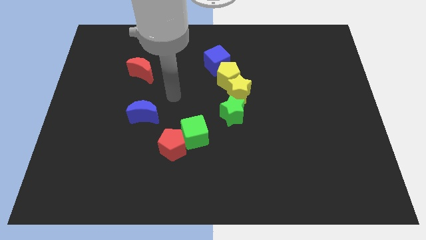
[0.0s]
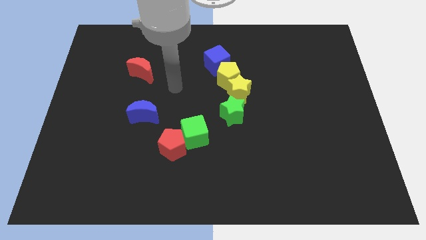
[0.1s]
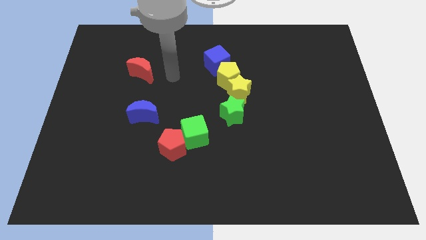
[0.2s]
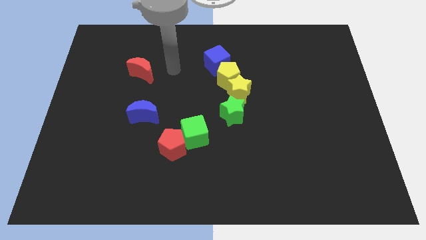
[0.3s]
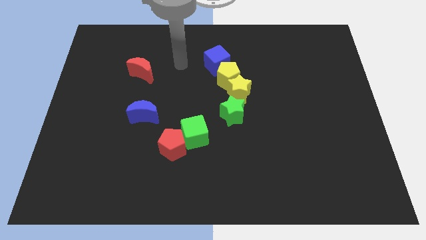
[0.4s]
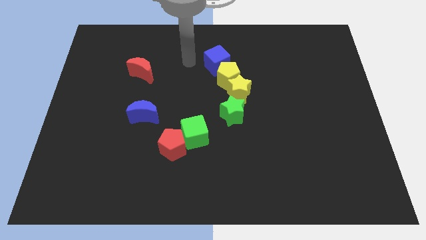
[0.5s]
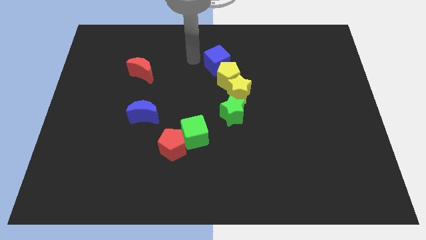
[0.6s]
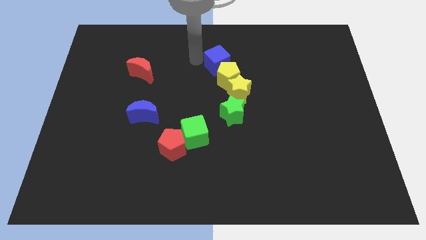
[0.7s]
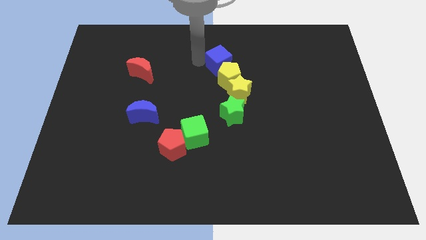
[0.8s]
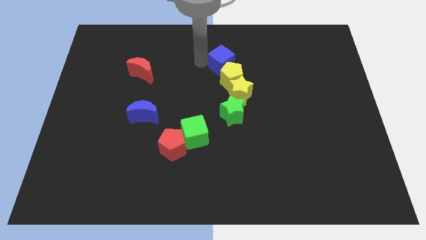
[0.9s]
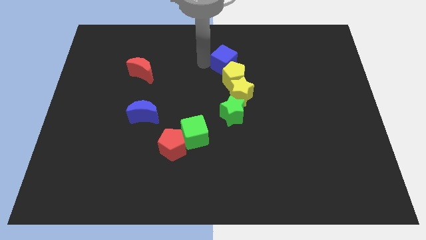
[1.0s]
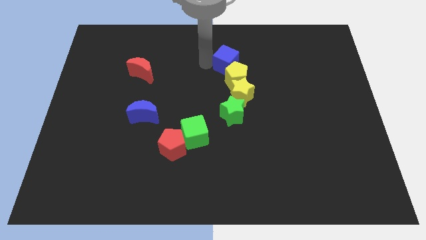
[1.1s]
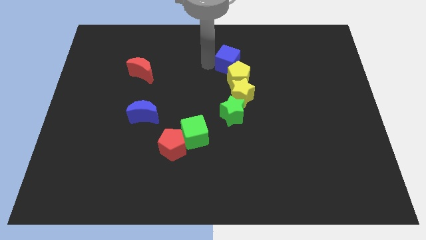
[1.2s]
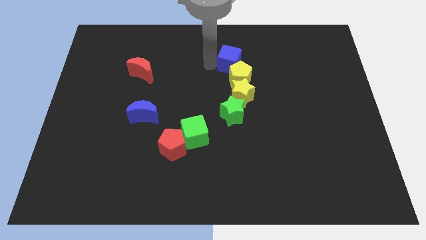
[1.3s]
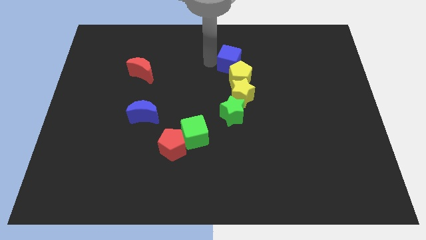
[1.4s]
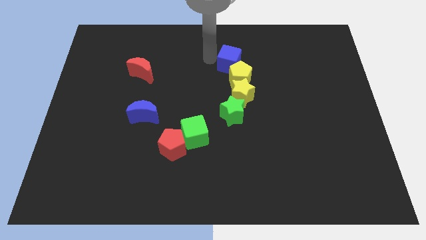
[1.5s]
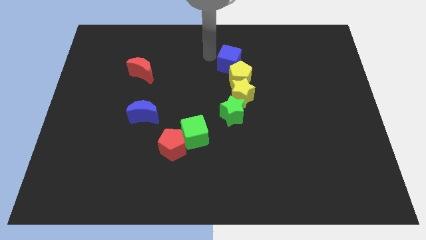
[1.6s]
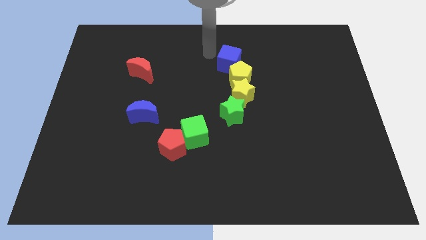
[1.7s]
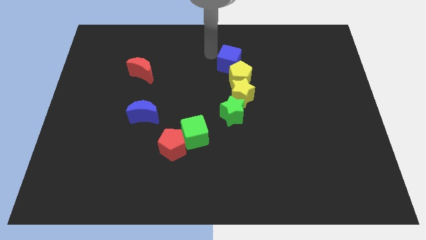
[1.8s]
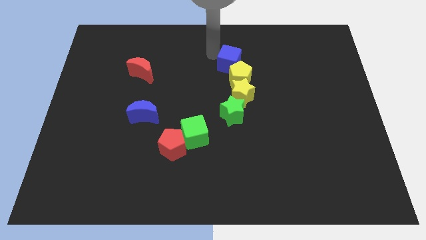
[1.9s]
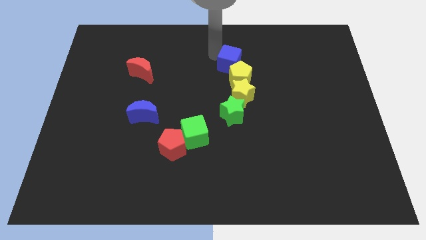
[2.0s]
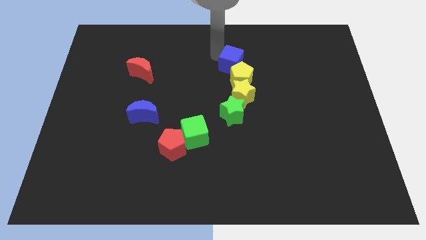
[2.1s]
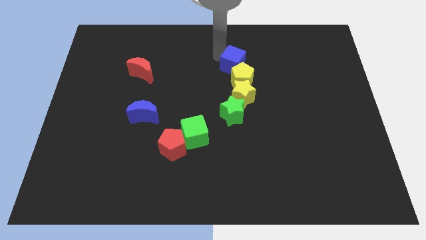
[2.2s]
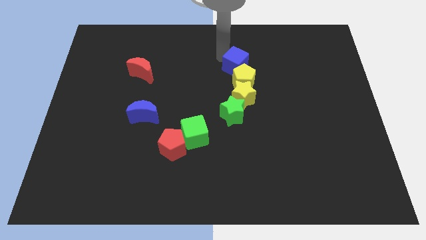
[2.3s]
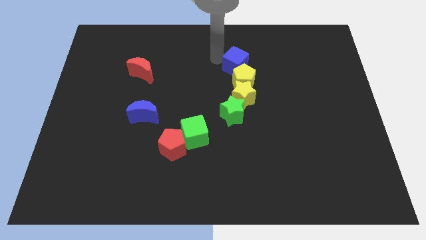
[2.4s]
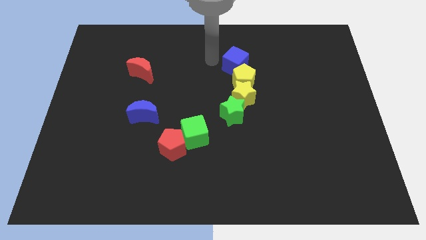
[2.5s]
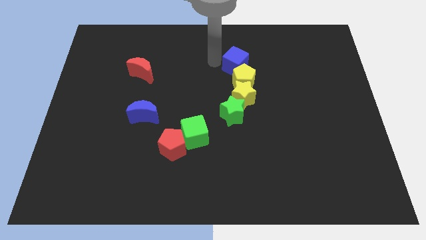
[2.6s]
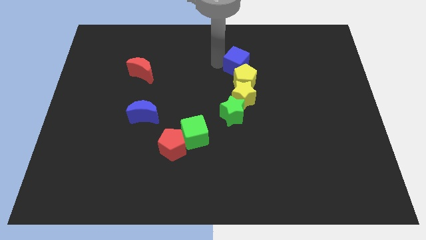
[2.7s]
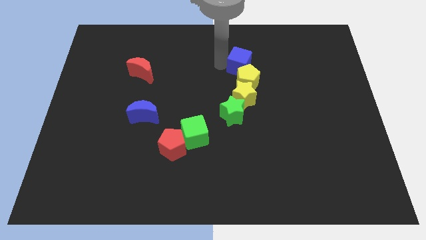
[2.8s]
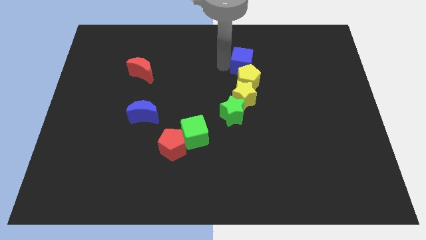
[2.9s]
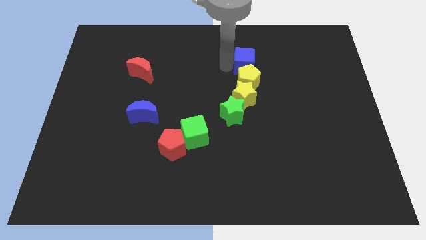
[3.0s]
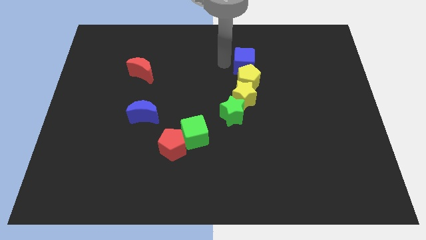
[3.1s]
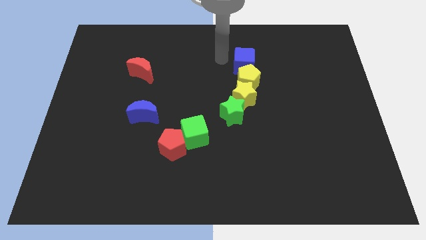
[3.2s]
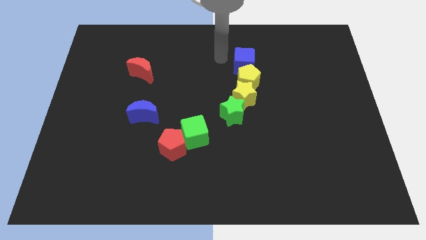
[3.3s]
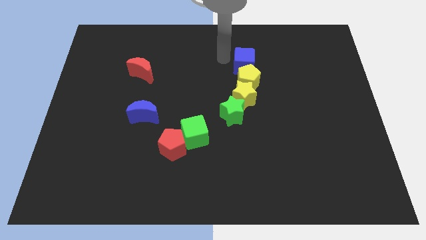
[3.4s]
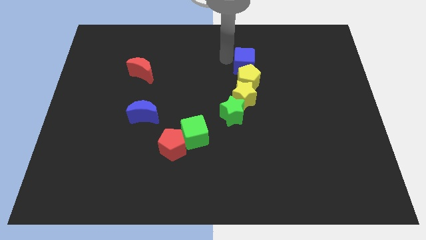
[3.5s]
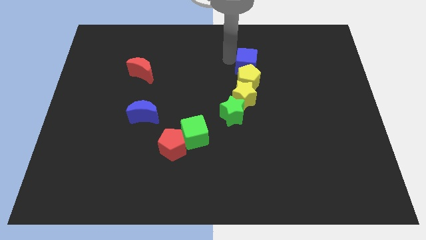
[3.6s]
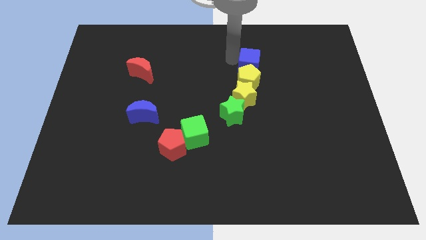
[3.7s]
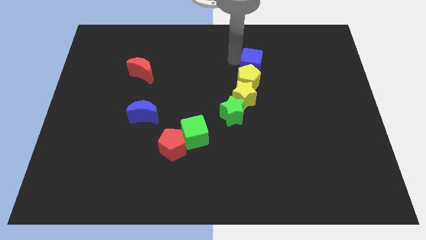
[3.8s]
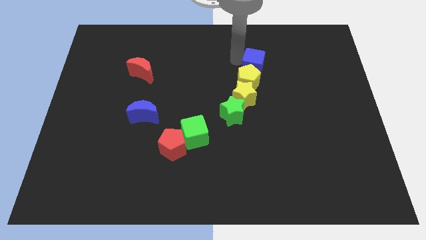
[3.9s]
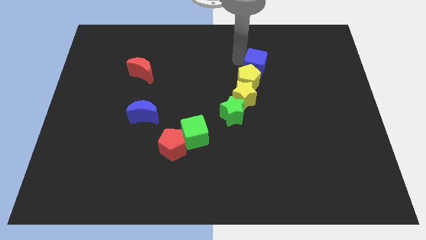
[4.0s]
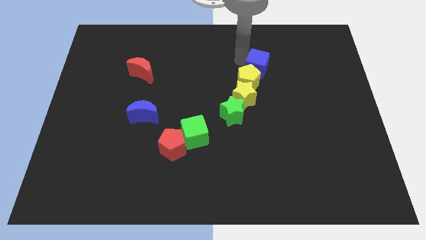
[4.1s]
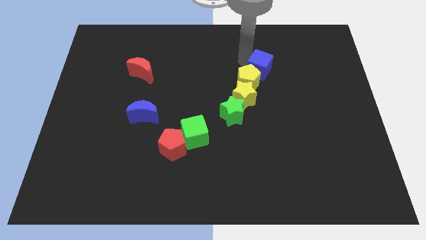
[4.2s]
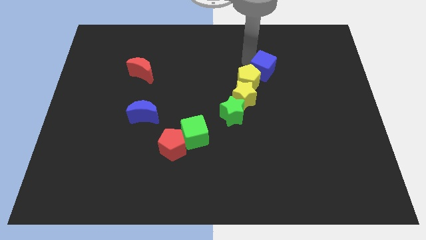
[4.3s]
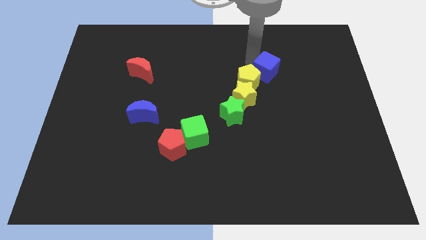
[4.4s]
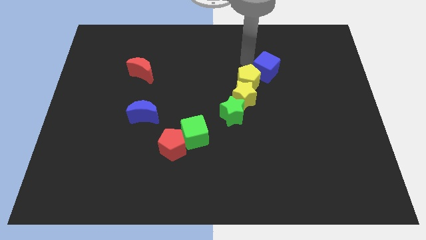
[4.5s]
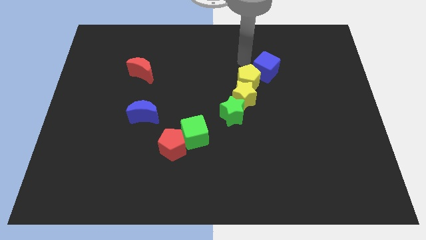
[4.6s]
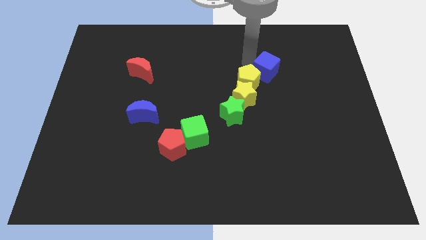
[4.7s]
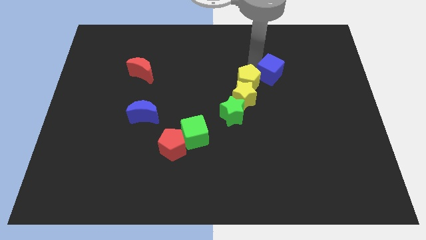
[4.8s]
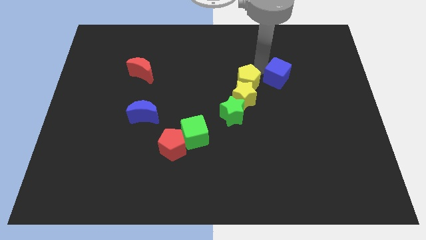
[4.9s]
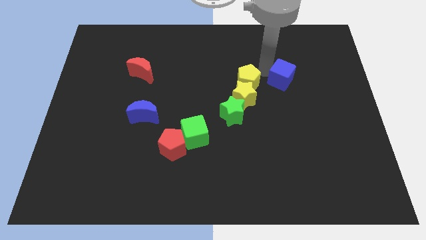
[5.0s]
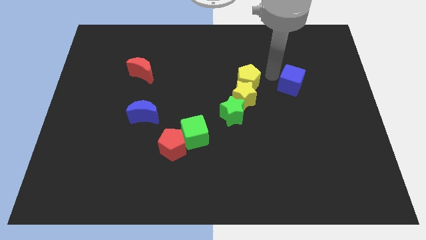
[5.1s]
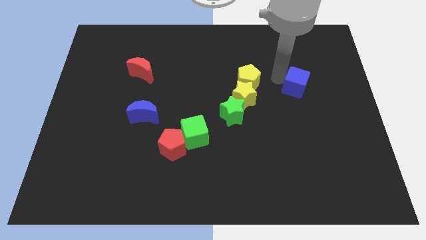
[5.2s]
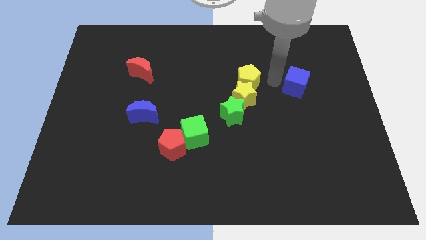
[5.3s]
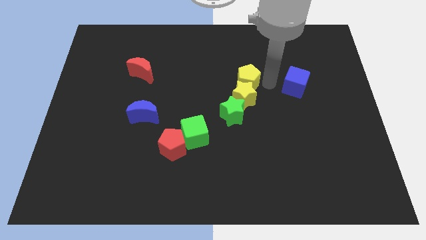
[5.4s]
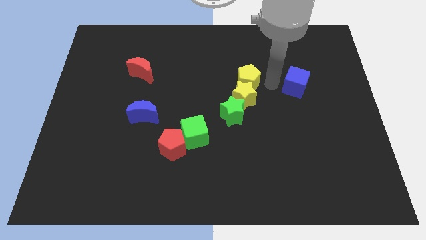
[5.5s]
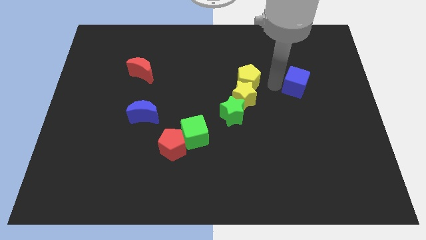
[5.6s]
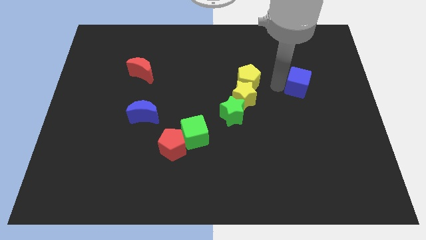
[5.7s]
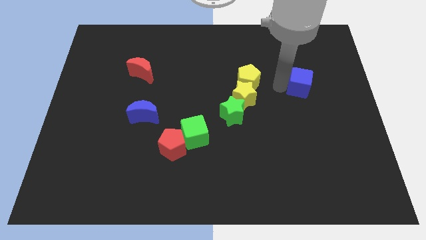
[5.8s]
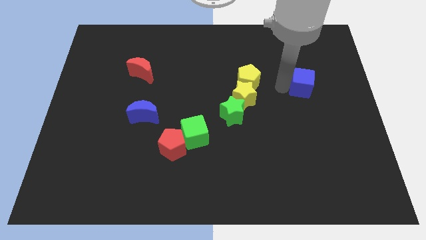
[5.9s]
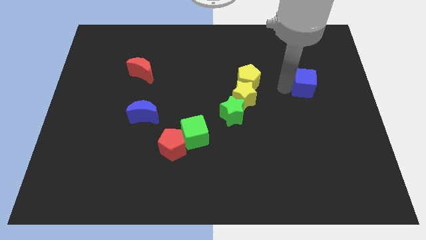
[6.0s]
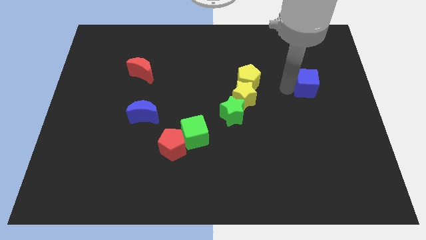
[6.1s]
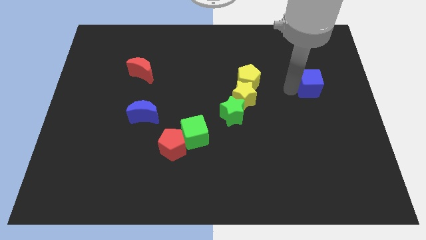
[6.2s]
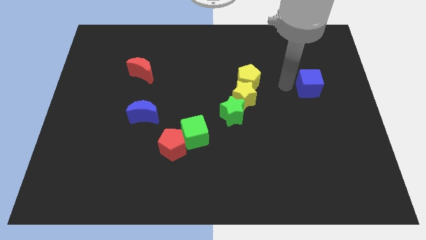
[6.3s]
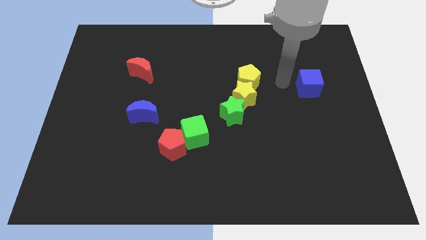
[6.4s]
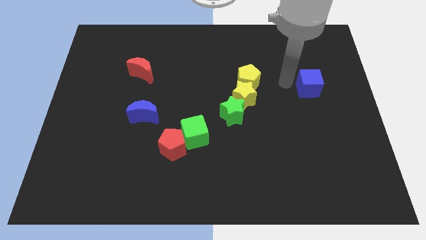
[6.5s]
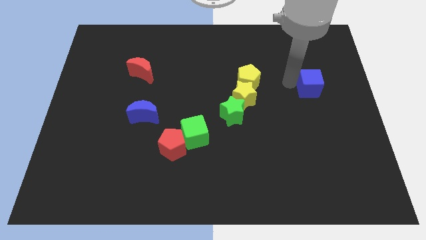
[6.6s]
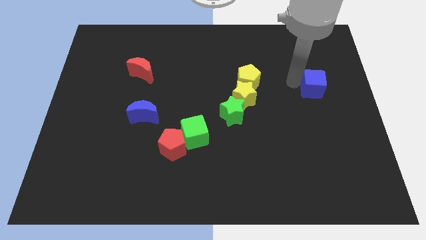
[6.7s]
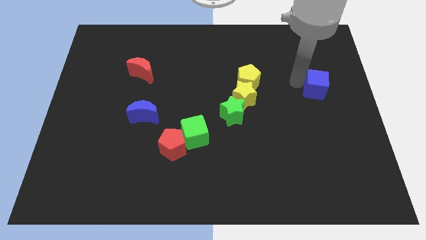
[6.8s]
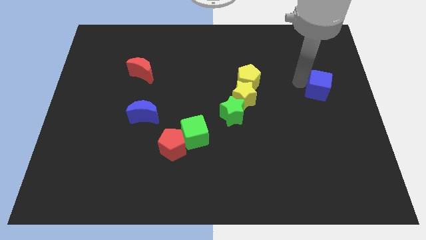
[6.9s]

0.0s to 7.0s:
slide the blue cube to the right side of the board
